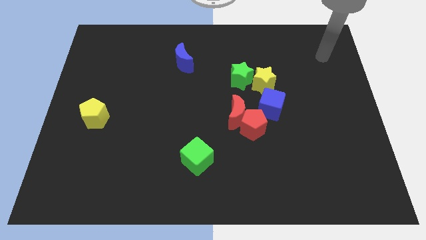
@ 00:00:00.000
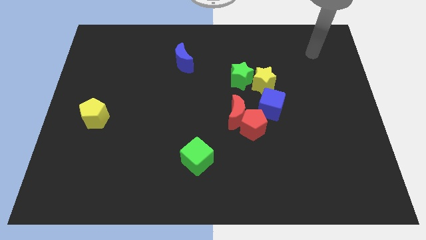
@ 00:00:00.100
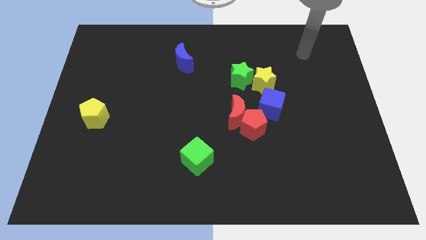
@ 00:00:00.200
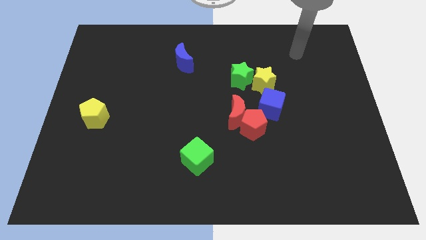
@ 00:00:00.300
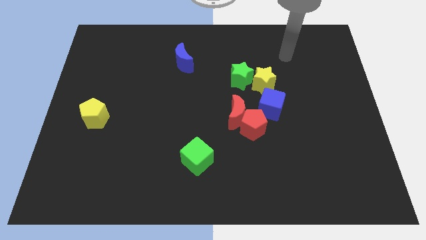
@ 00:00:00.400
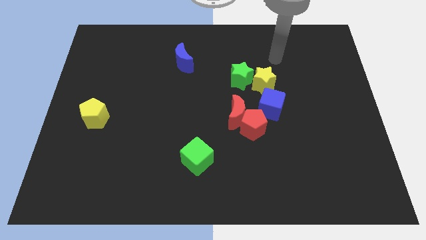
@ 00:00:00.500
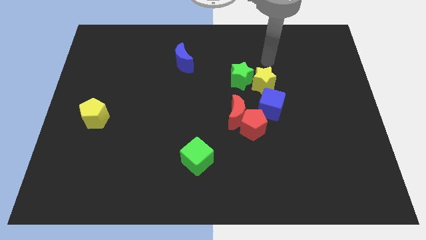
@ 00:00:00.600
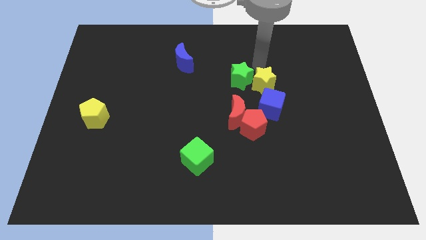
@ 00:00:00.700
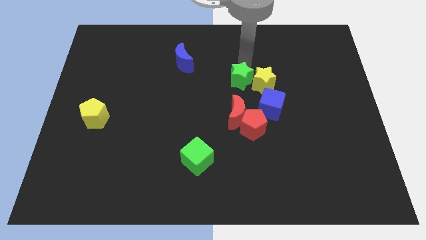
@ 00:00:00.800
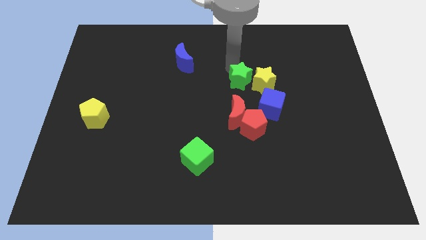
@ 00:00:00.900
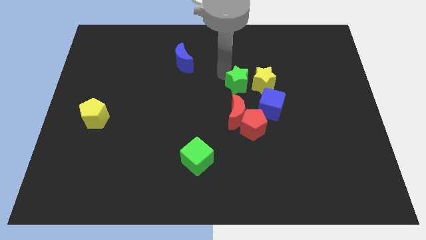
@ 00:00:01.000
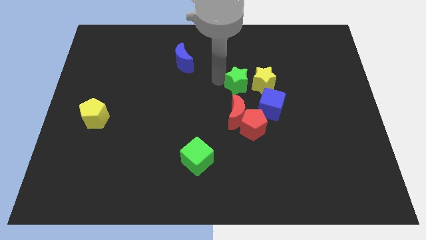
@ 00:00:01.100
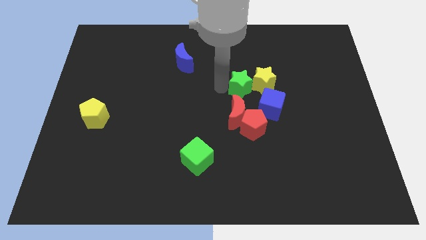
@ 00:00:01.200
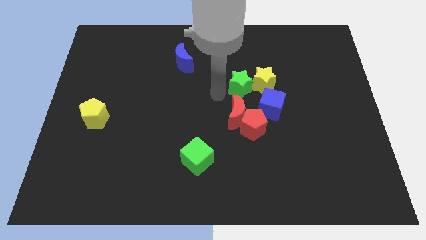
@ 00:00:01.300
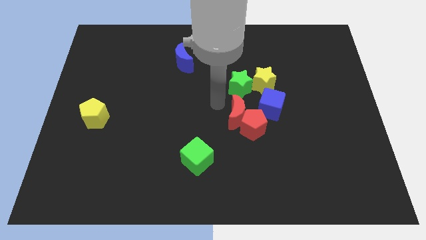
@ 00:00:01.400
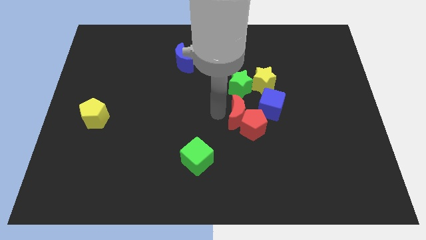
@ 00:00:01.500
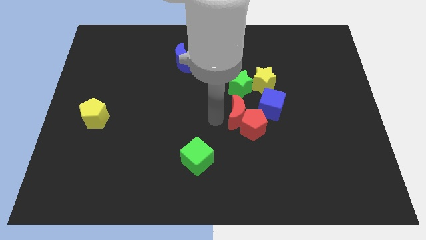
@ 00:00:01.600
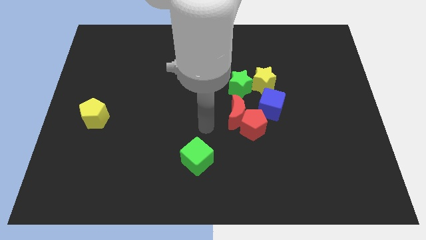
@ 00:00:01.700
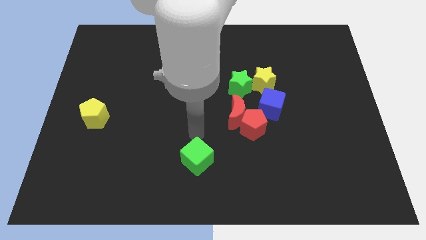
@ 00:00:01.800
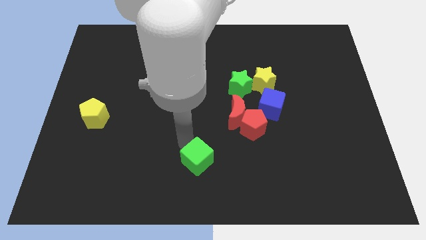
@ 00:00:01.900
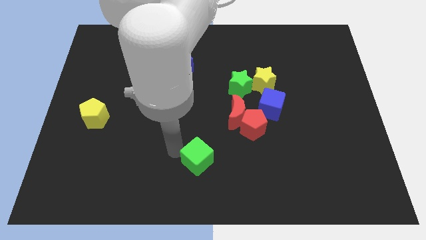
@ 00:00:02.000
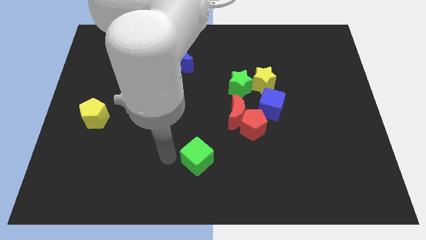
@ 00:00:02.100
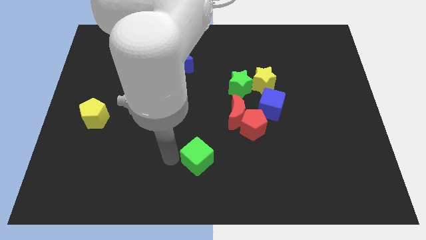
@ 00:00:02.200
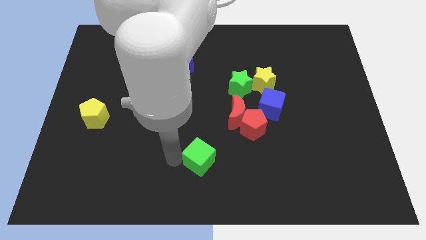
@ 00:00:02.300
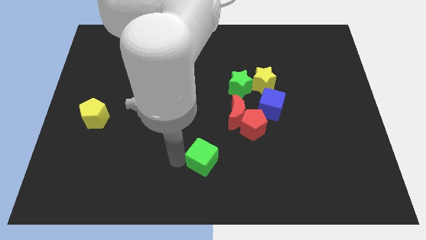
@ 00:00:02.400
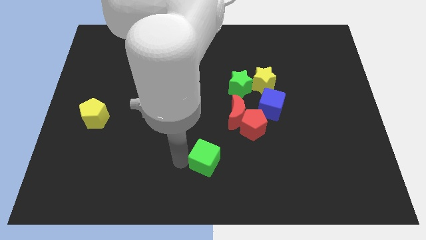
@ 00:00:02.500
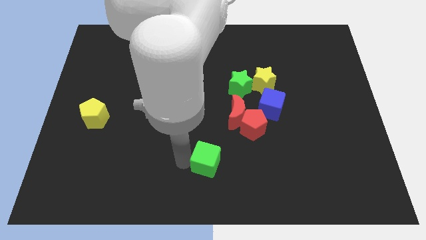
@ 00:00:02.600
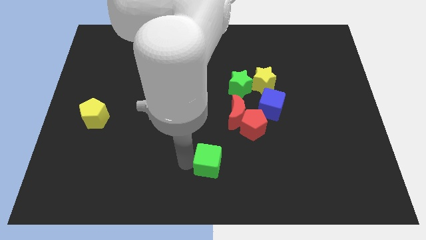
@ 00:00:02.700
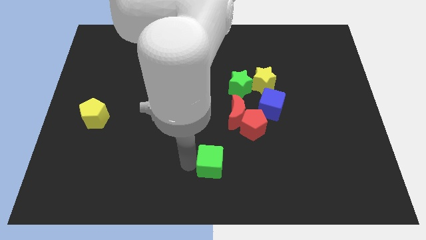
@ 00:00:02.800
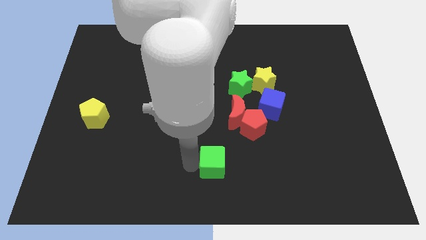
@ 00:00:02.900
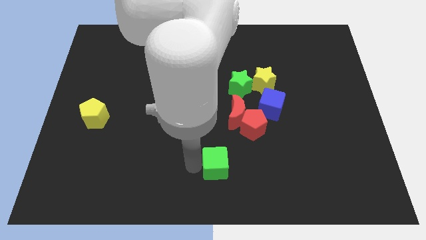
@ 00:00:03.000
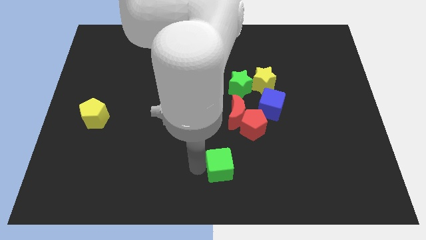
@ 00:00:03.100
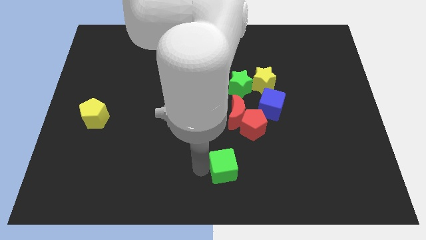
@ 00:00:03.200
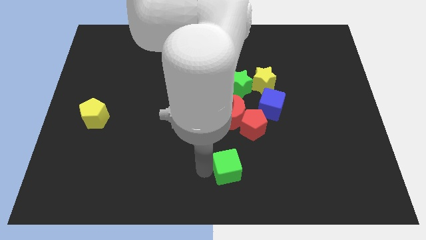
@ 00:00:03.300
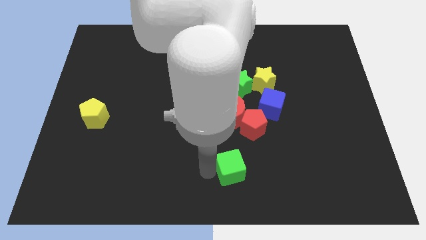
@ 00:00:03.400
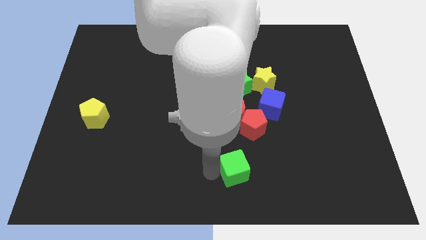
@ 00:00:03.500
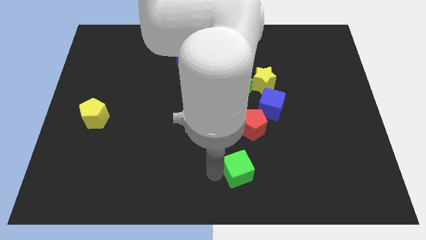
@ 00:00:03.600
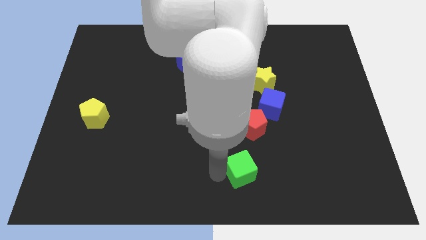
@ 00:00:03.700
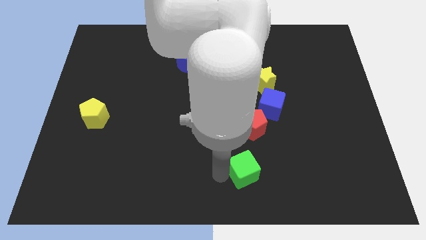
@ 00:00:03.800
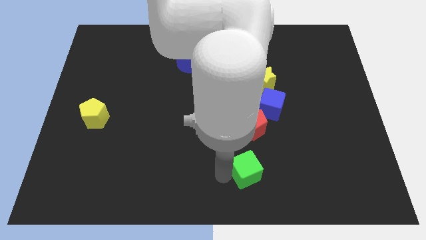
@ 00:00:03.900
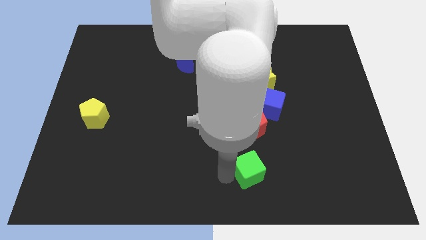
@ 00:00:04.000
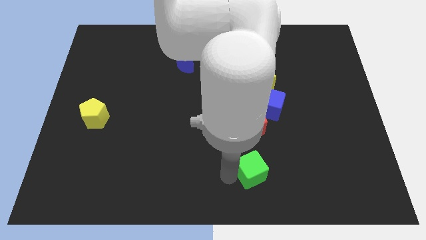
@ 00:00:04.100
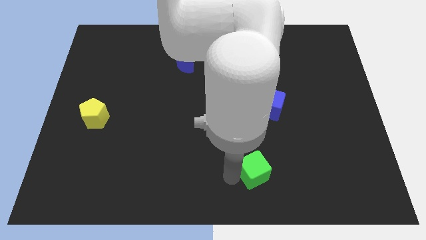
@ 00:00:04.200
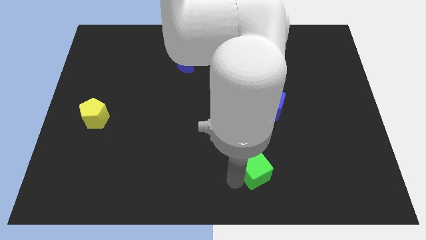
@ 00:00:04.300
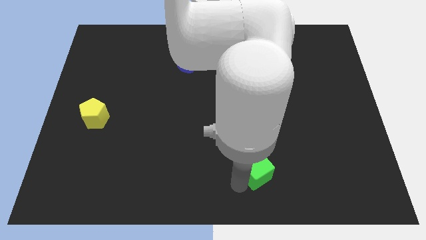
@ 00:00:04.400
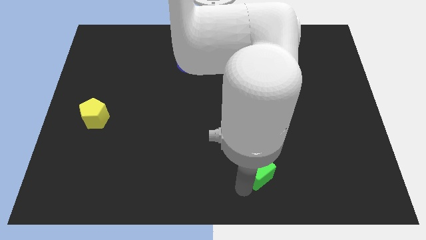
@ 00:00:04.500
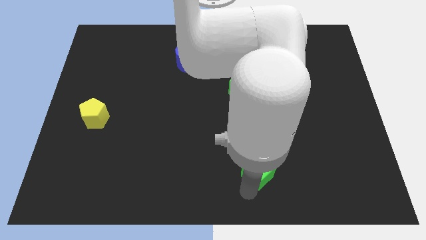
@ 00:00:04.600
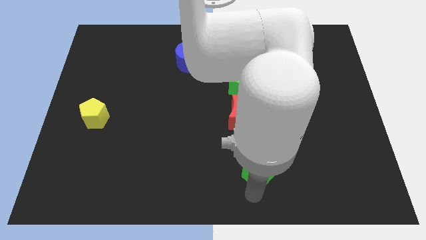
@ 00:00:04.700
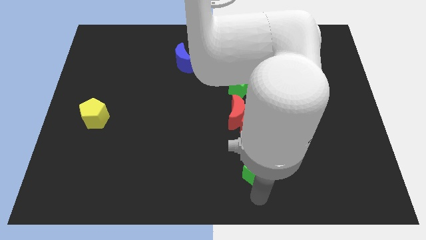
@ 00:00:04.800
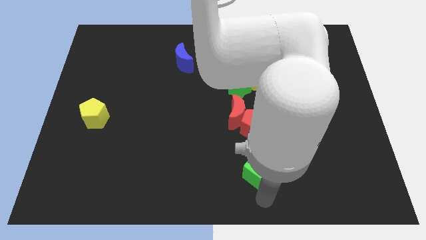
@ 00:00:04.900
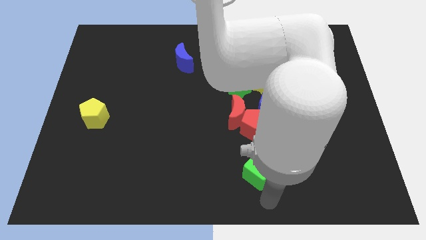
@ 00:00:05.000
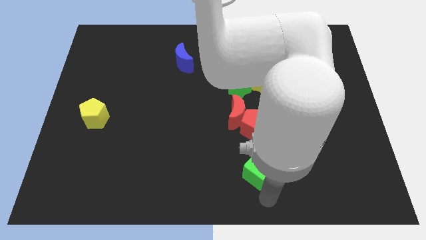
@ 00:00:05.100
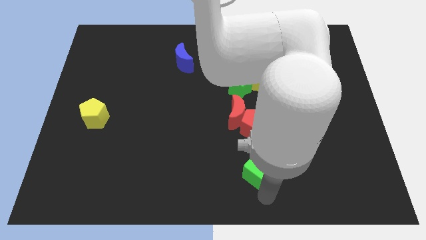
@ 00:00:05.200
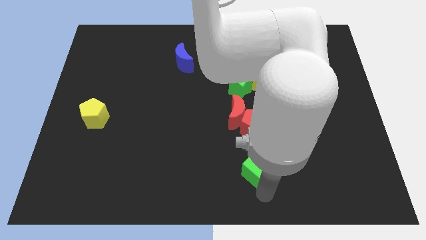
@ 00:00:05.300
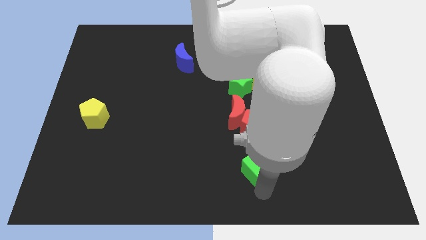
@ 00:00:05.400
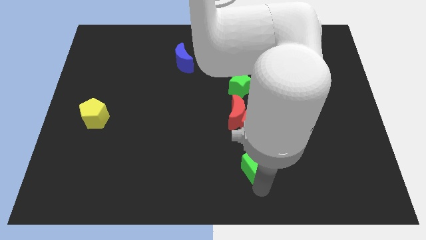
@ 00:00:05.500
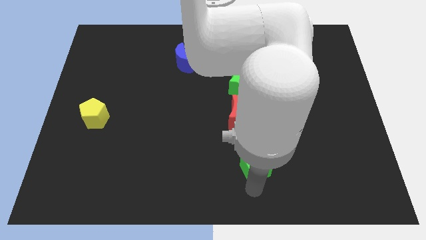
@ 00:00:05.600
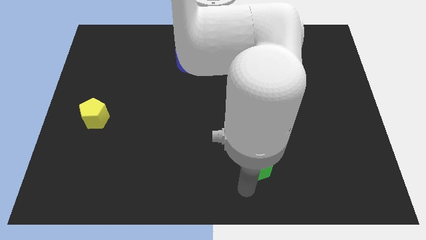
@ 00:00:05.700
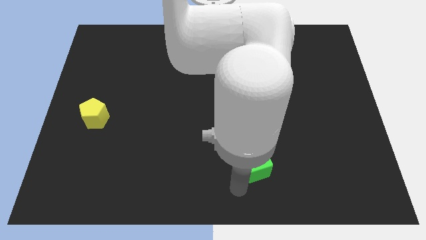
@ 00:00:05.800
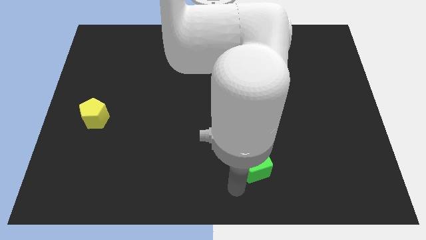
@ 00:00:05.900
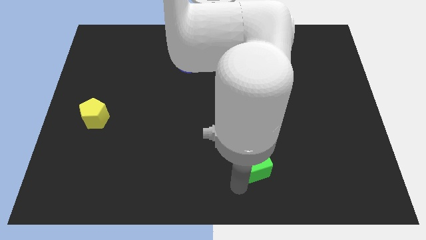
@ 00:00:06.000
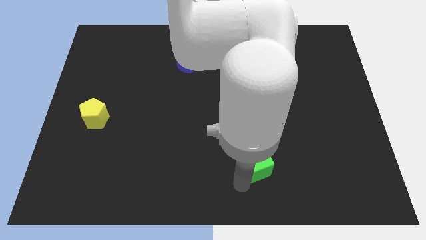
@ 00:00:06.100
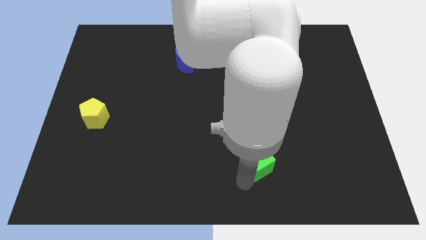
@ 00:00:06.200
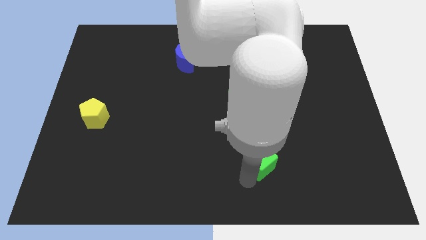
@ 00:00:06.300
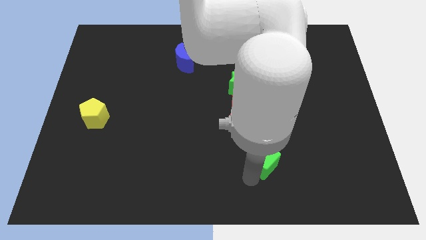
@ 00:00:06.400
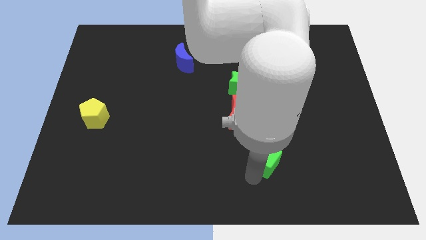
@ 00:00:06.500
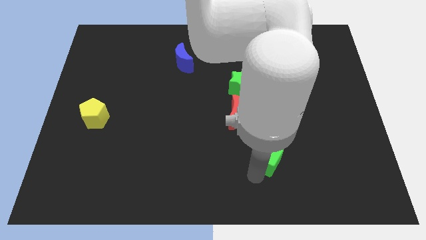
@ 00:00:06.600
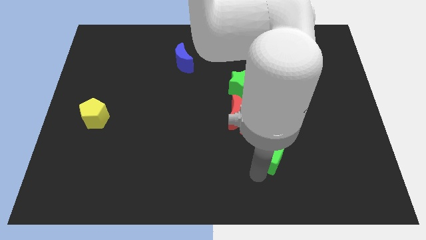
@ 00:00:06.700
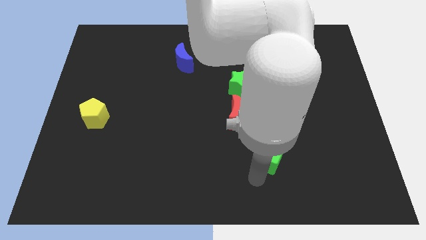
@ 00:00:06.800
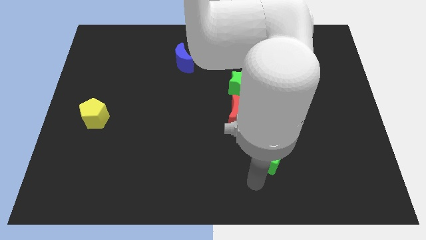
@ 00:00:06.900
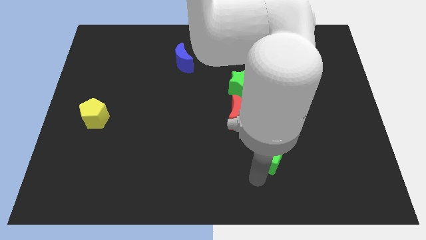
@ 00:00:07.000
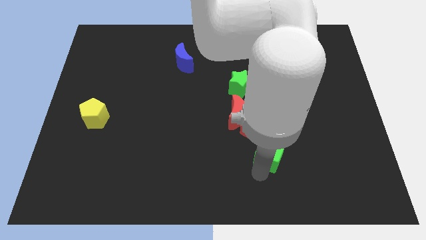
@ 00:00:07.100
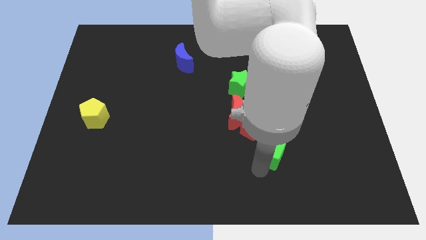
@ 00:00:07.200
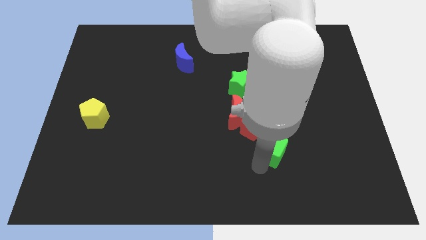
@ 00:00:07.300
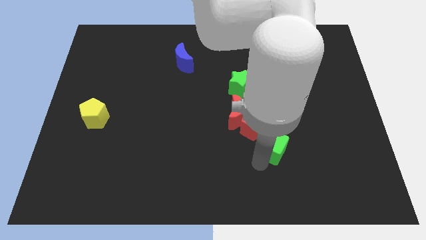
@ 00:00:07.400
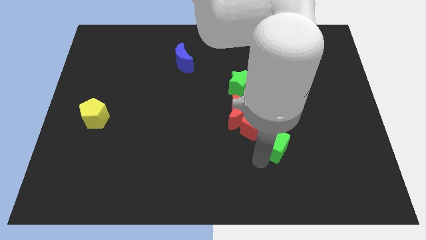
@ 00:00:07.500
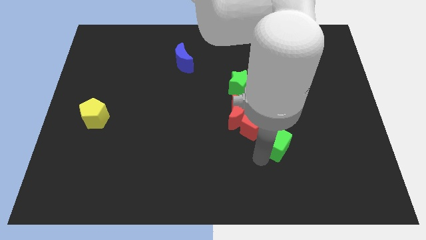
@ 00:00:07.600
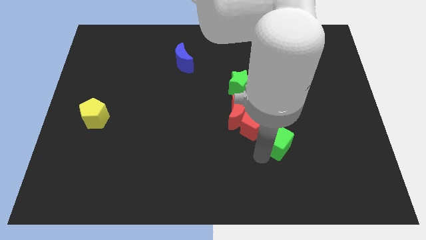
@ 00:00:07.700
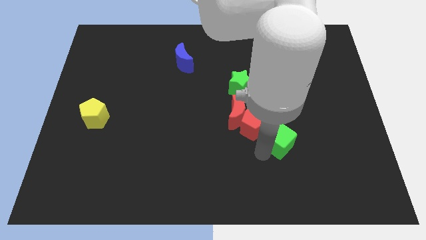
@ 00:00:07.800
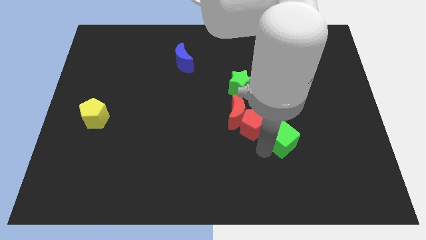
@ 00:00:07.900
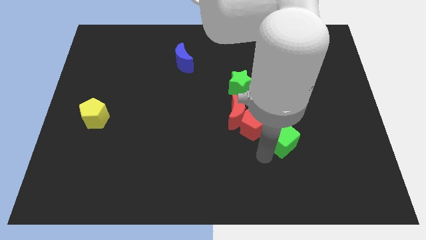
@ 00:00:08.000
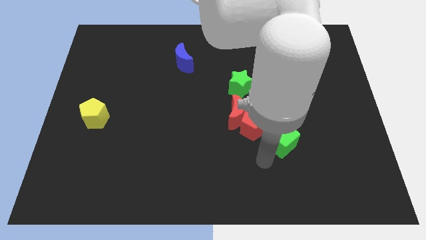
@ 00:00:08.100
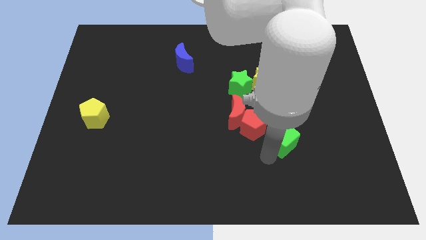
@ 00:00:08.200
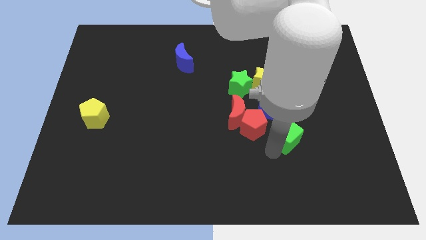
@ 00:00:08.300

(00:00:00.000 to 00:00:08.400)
move the green cube to the bottom right of the blue cube
